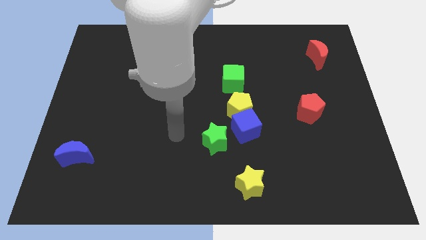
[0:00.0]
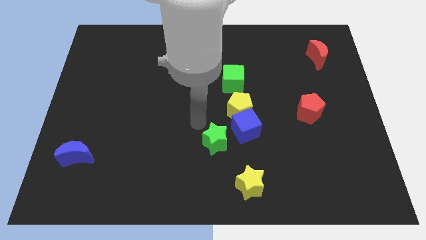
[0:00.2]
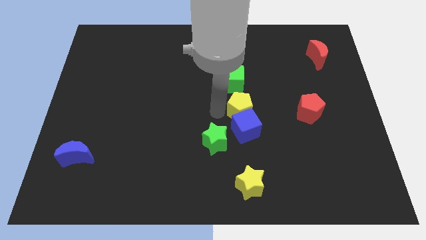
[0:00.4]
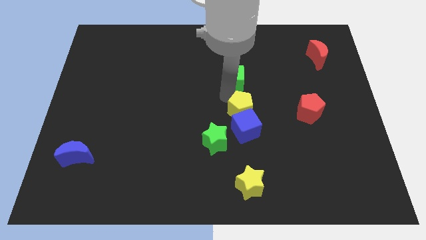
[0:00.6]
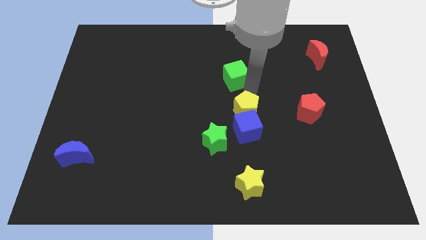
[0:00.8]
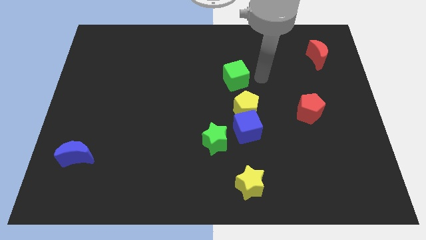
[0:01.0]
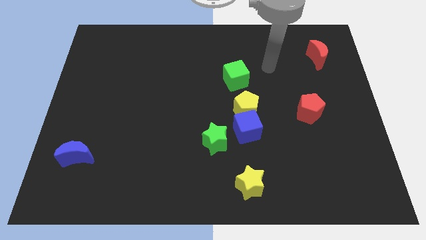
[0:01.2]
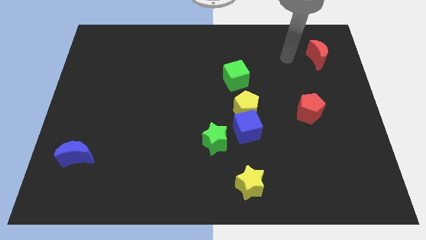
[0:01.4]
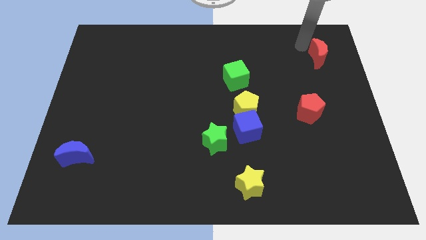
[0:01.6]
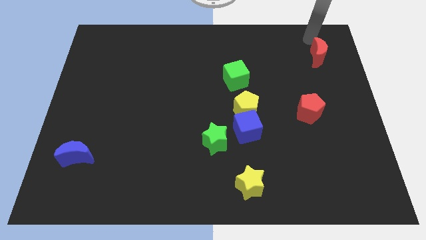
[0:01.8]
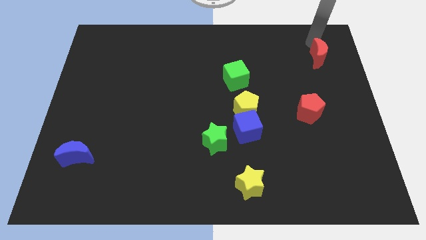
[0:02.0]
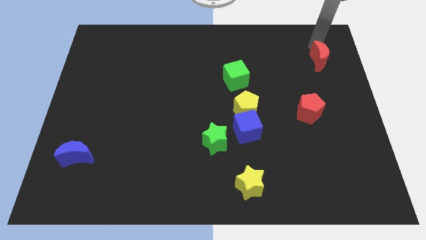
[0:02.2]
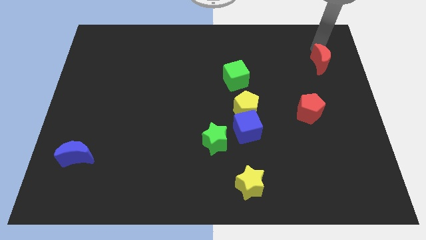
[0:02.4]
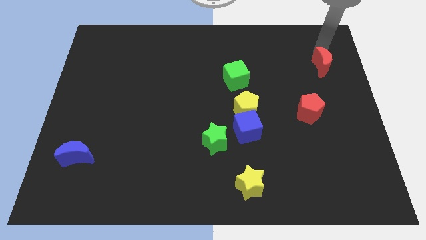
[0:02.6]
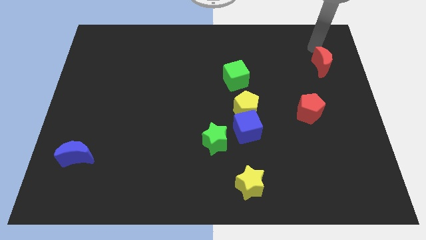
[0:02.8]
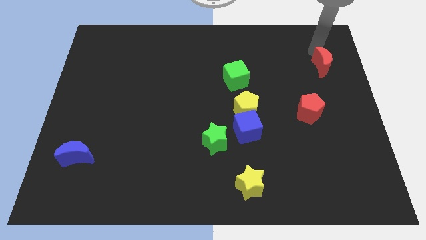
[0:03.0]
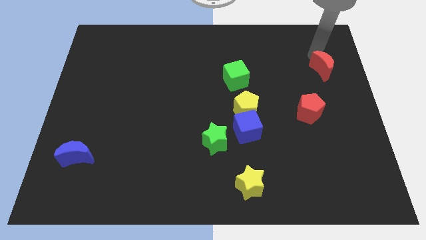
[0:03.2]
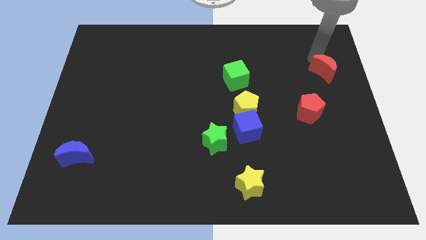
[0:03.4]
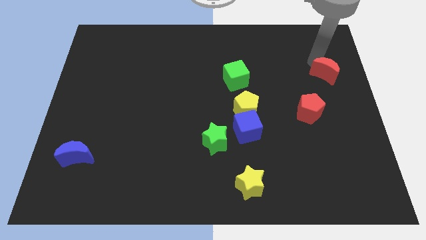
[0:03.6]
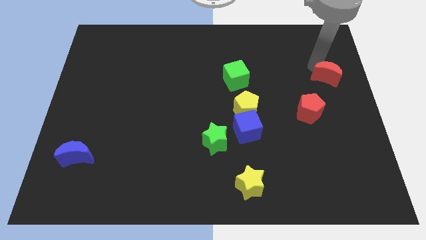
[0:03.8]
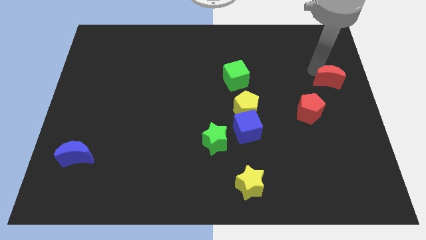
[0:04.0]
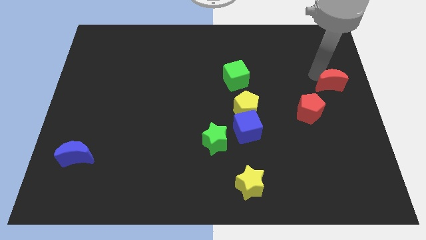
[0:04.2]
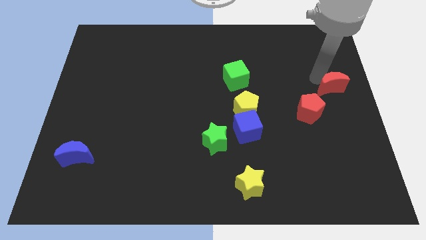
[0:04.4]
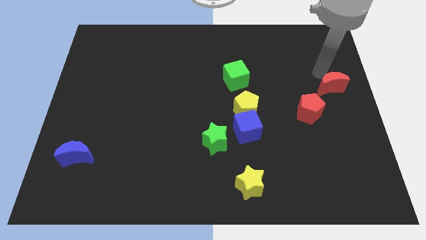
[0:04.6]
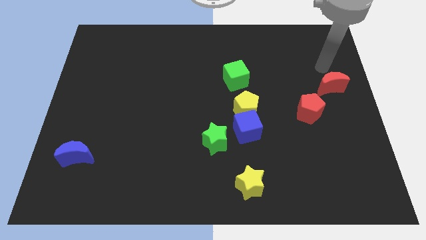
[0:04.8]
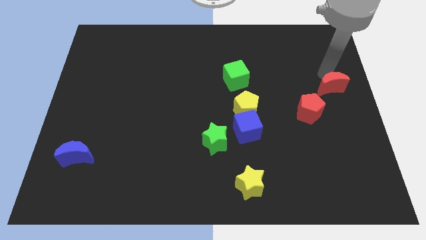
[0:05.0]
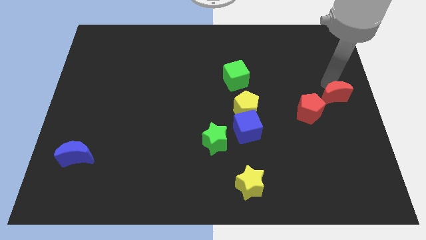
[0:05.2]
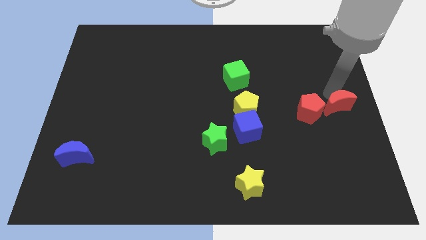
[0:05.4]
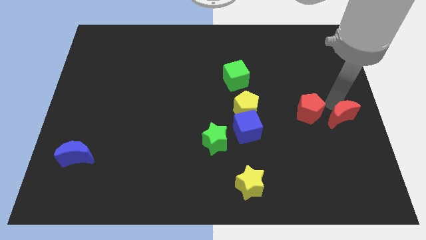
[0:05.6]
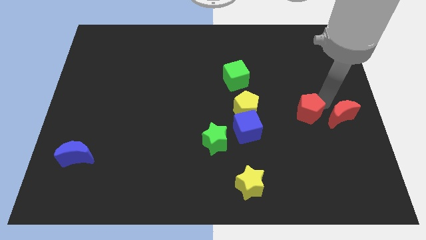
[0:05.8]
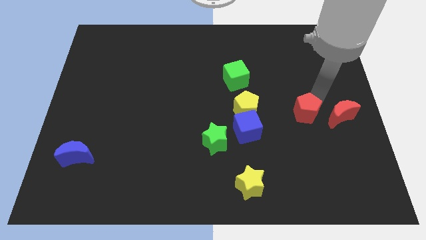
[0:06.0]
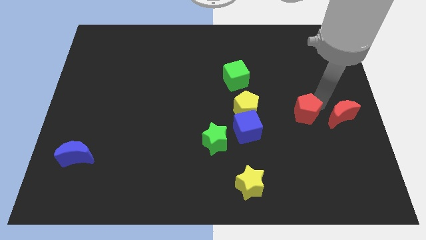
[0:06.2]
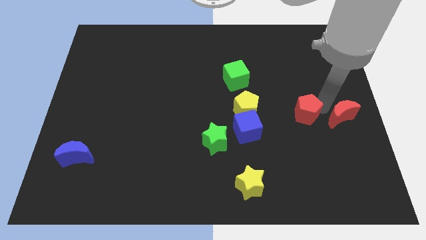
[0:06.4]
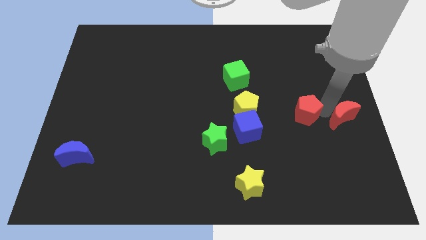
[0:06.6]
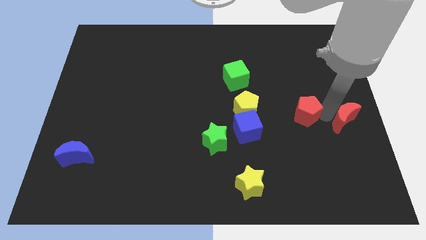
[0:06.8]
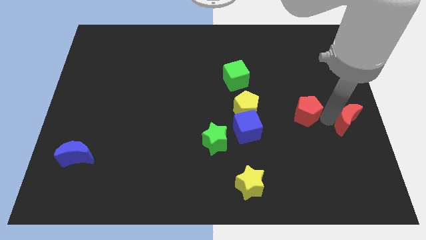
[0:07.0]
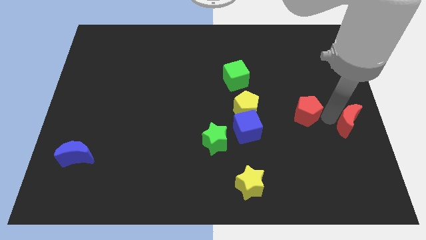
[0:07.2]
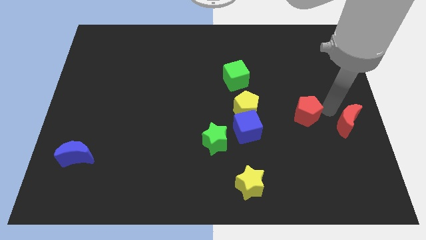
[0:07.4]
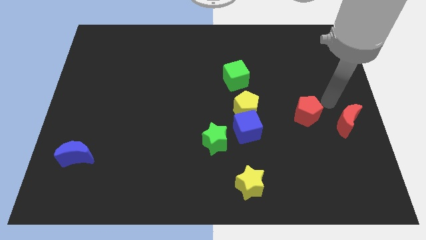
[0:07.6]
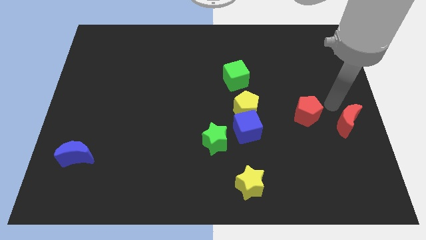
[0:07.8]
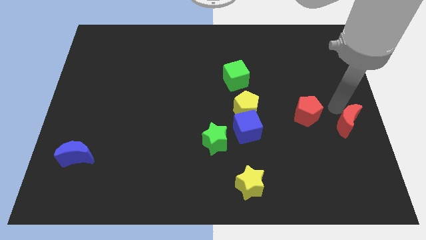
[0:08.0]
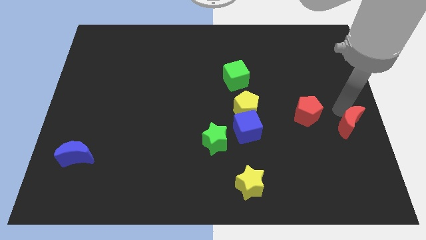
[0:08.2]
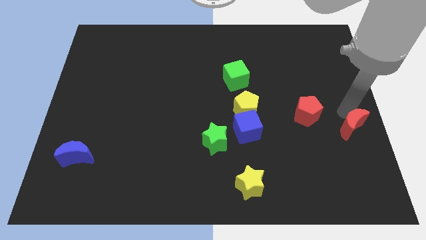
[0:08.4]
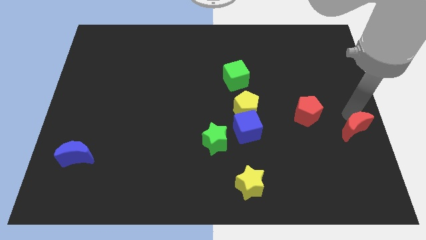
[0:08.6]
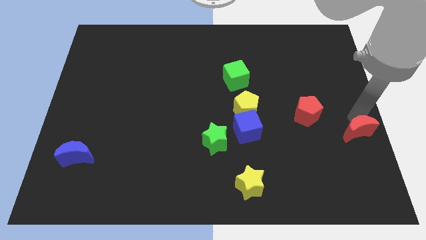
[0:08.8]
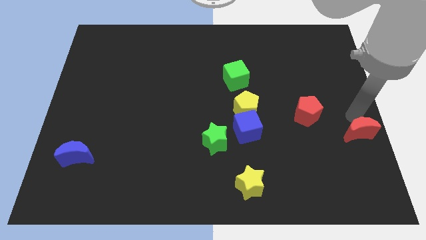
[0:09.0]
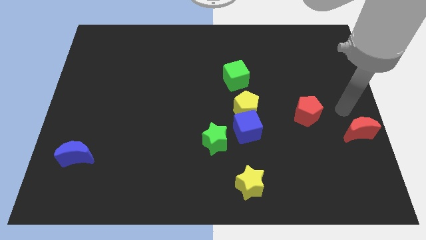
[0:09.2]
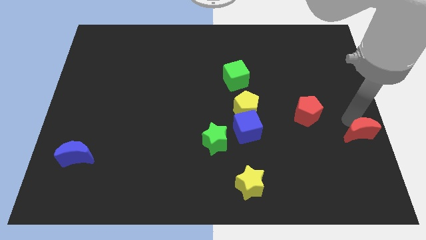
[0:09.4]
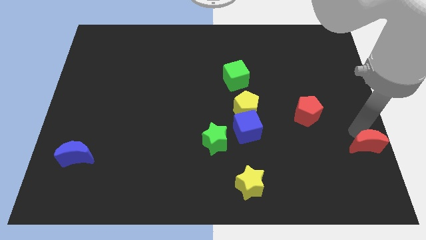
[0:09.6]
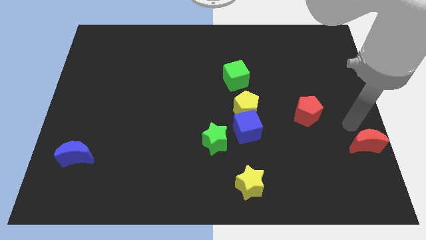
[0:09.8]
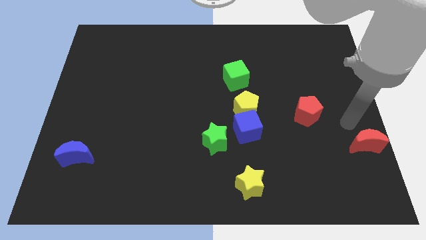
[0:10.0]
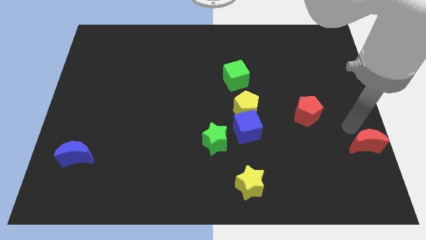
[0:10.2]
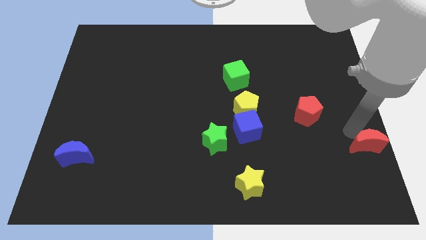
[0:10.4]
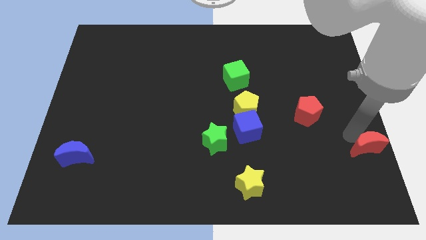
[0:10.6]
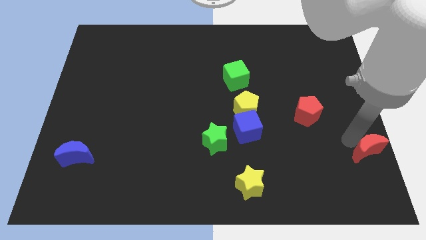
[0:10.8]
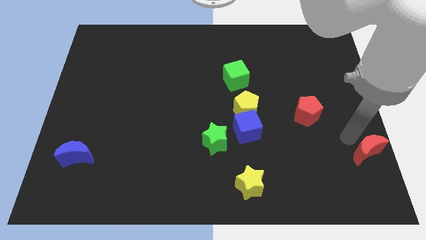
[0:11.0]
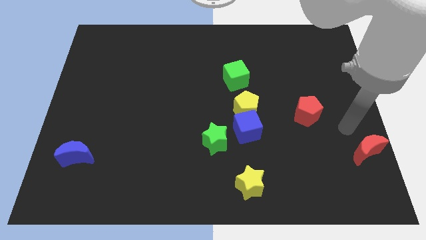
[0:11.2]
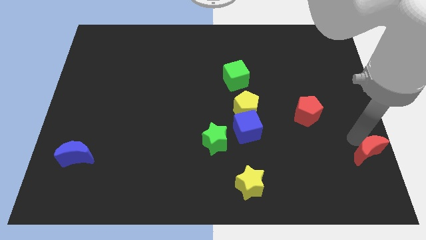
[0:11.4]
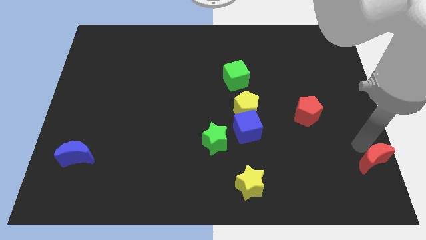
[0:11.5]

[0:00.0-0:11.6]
slide the red moon to the lower right corner
